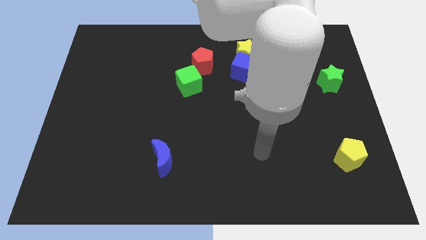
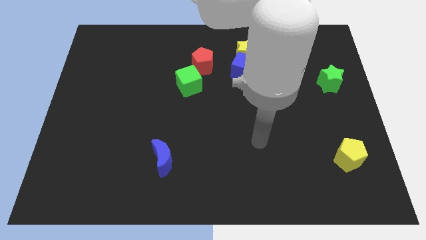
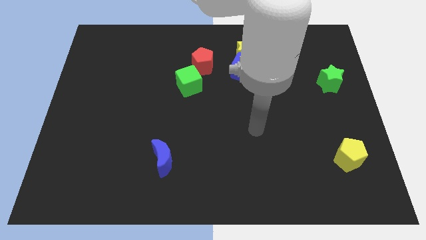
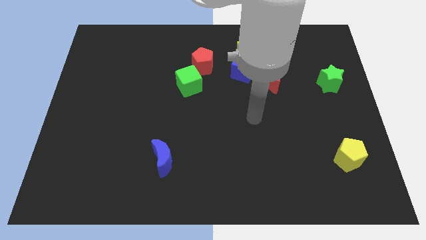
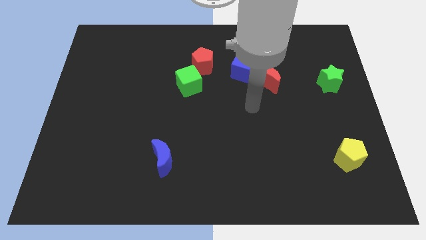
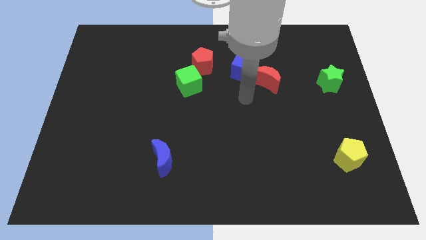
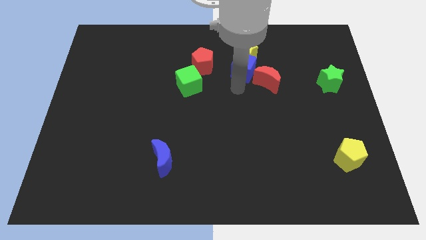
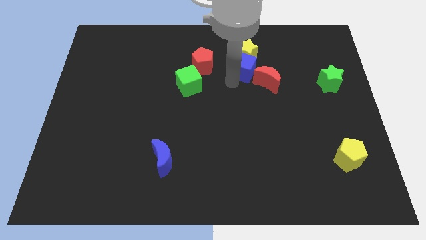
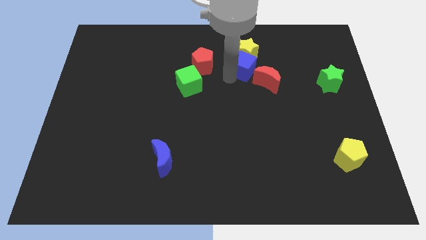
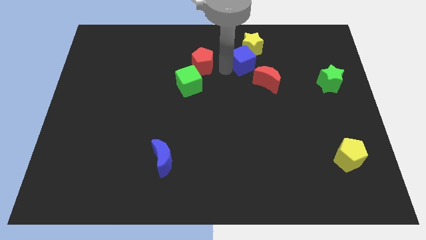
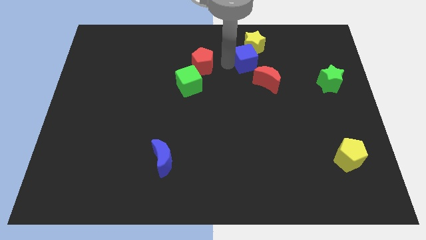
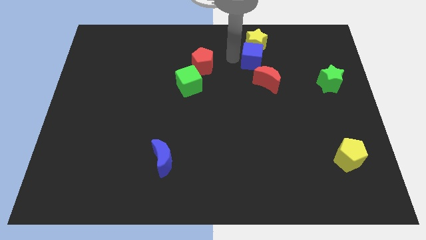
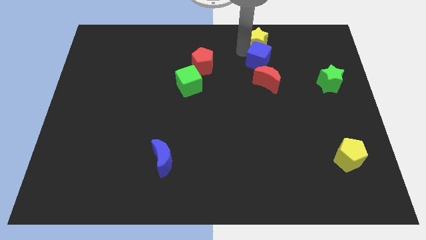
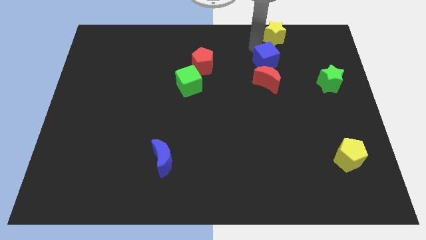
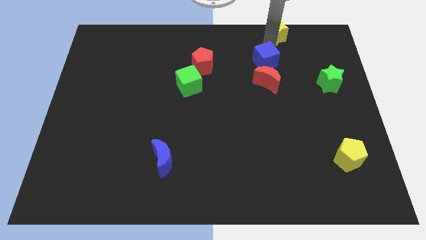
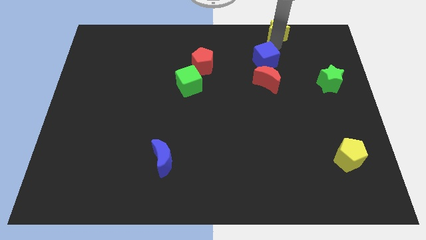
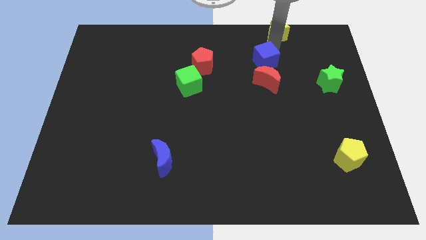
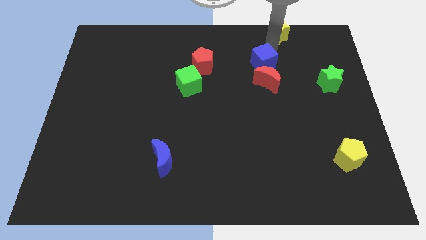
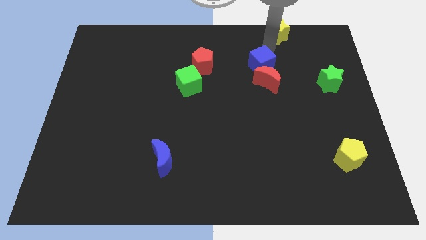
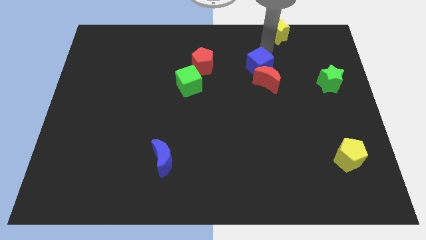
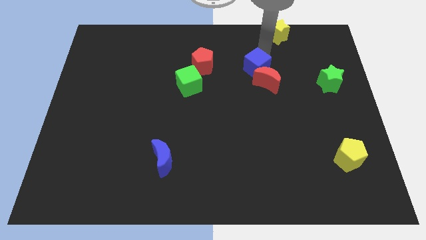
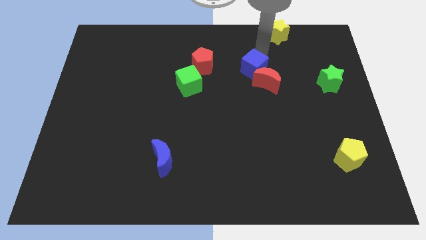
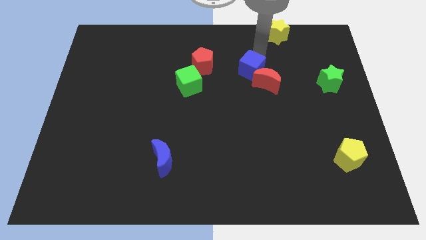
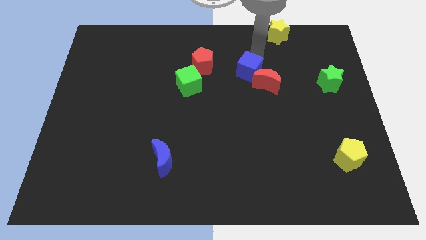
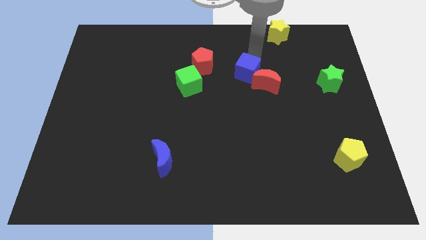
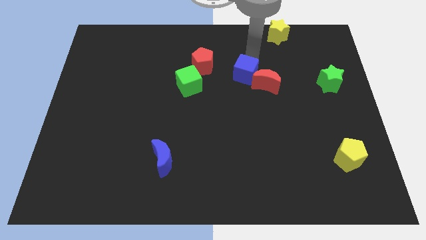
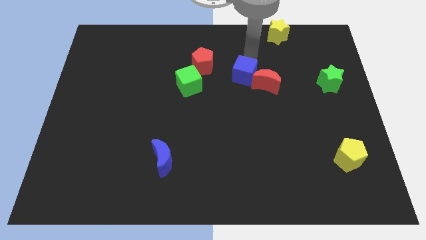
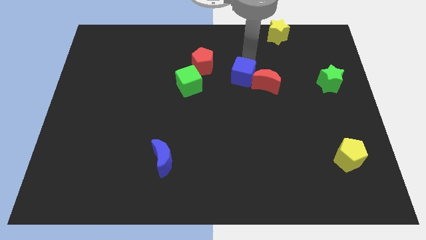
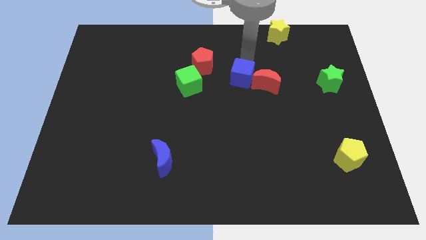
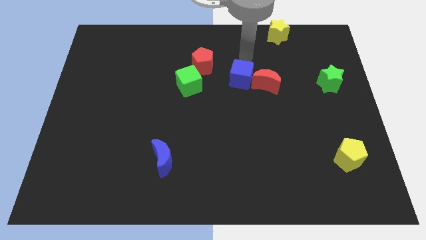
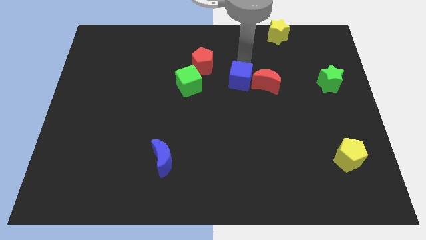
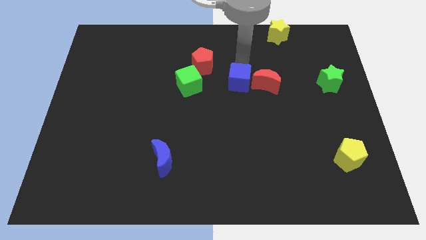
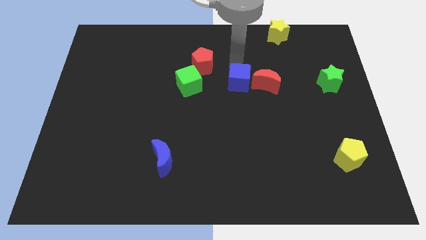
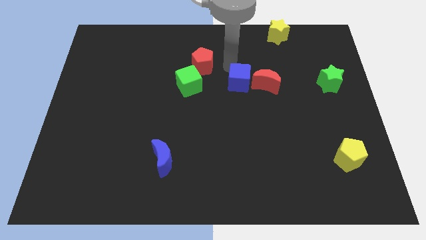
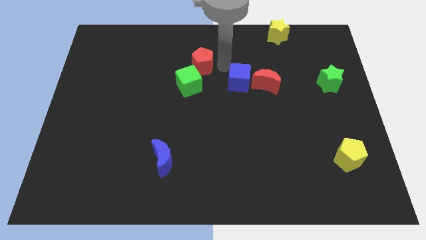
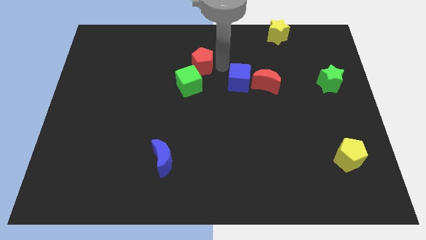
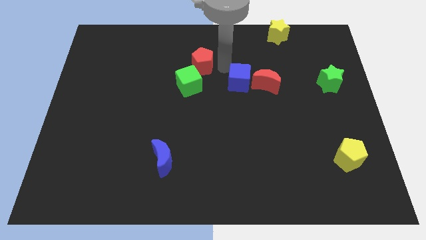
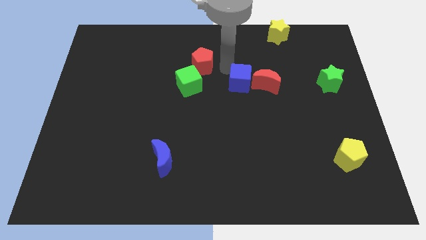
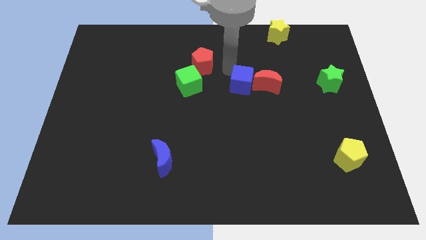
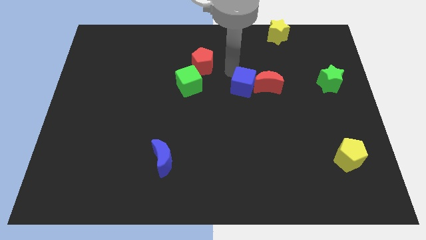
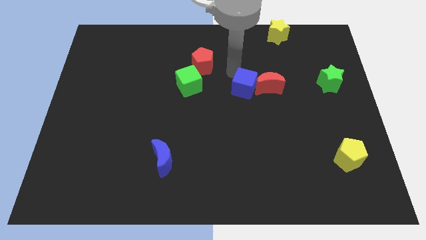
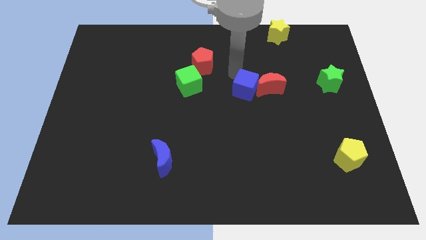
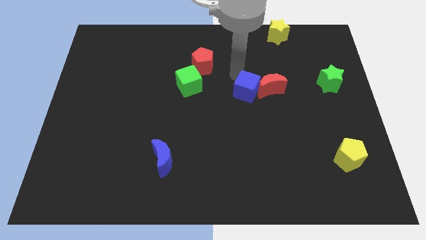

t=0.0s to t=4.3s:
pull the blue cube apart from the group

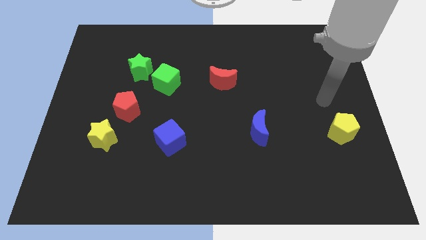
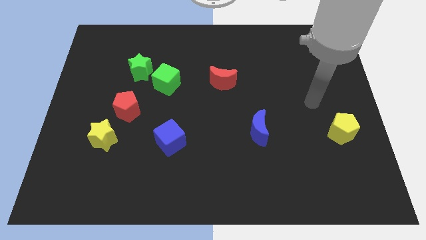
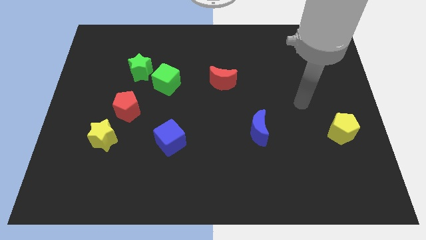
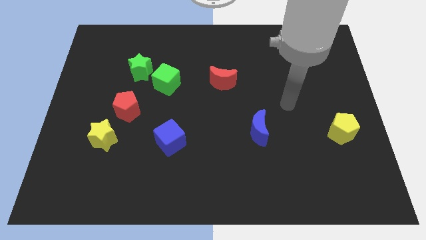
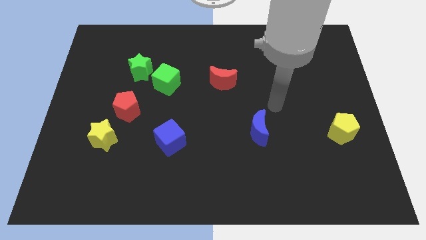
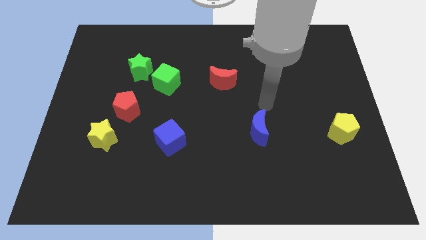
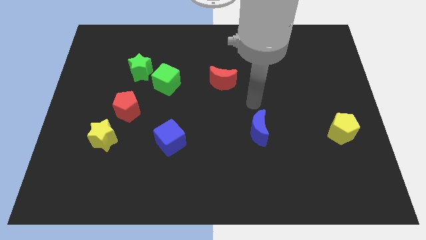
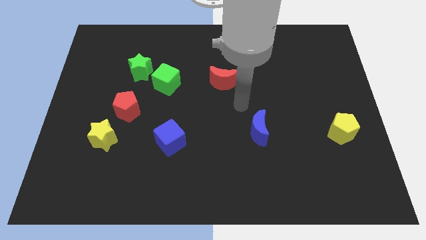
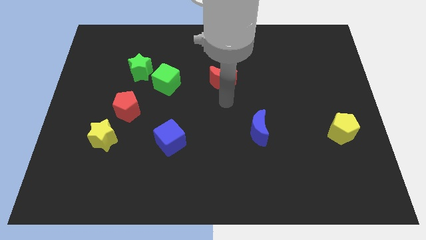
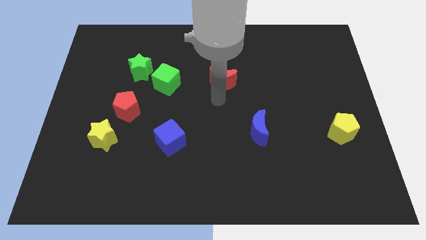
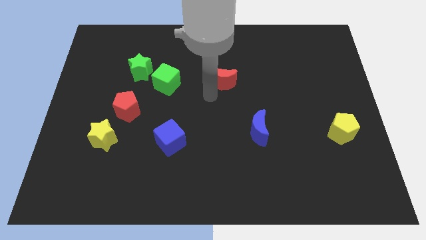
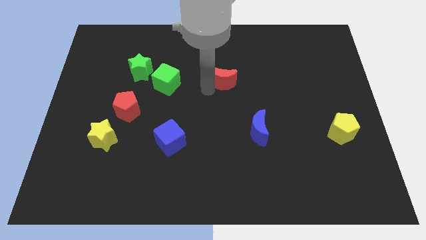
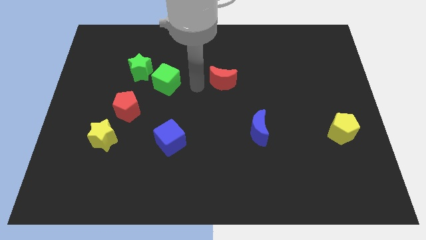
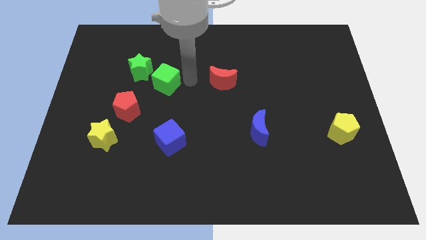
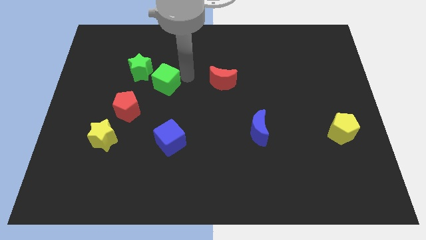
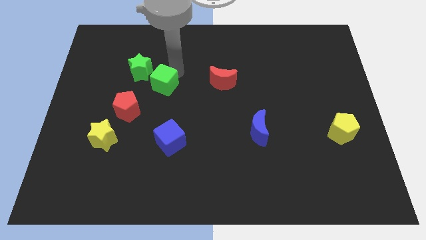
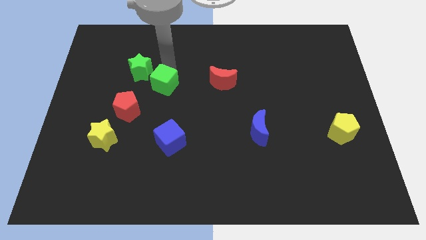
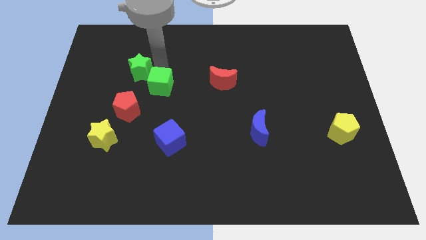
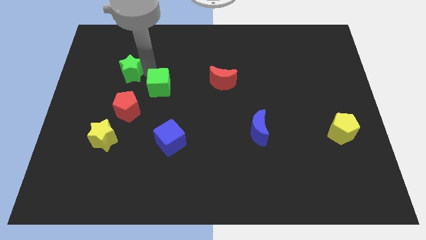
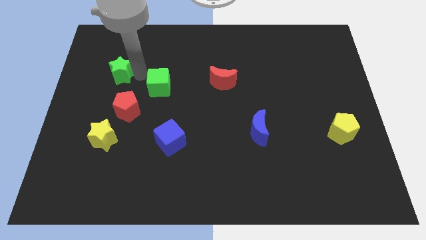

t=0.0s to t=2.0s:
pull the green cube apart from the green star

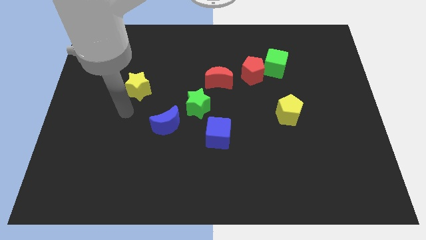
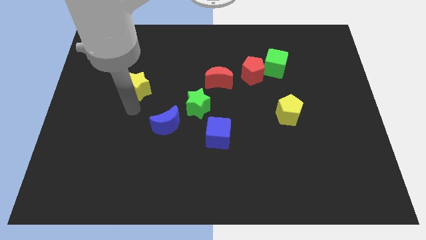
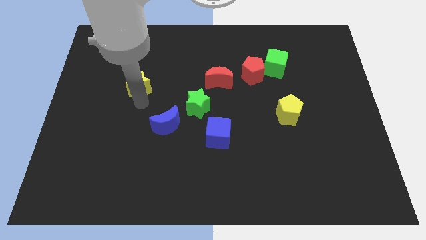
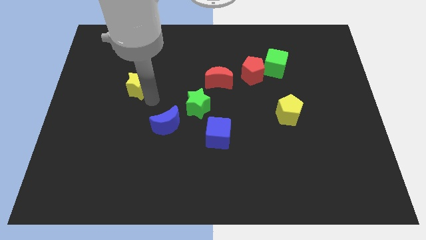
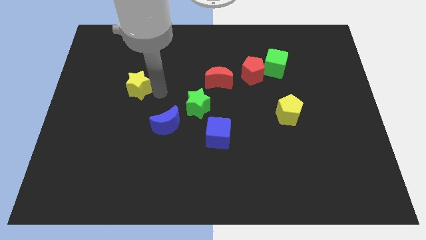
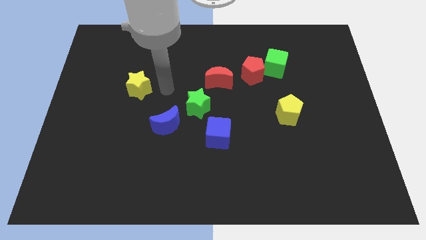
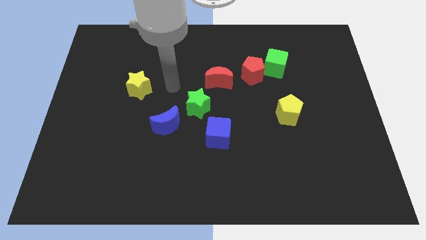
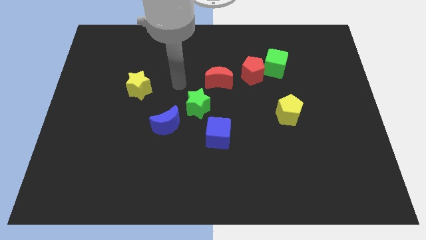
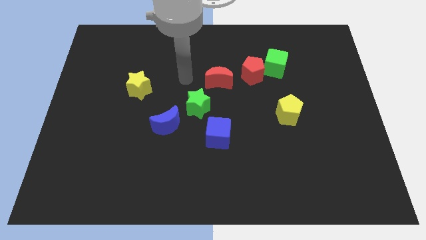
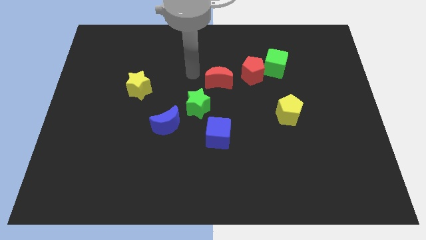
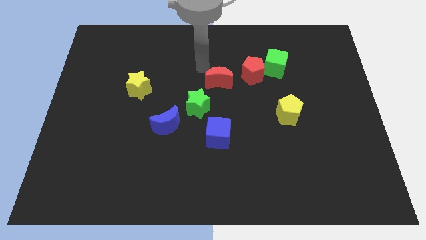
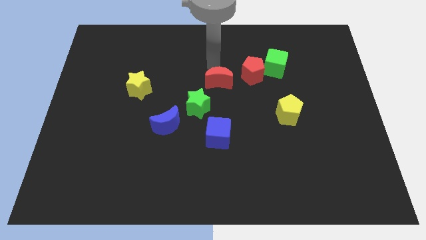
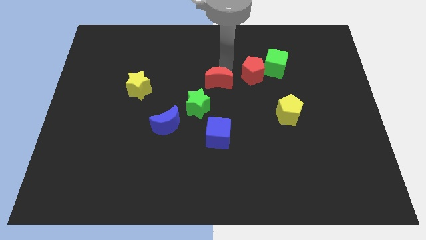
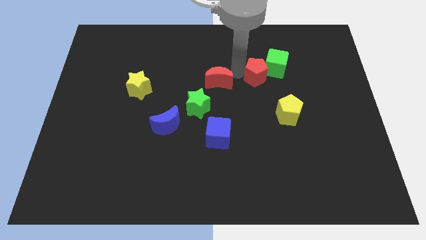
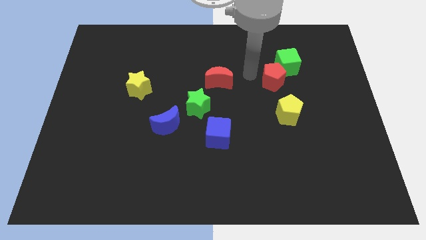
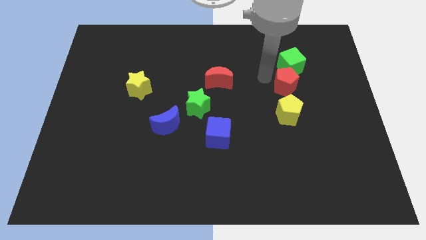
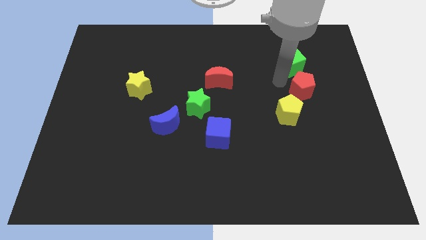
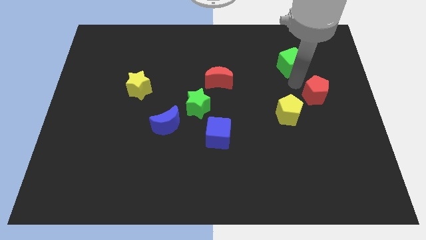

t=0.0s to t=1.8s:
pull the green cube apart from the red pentagon

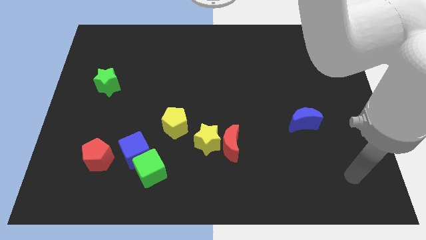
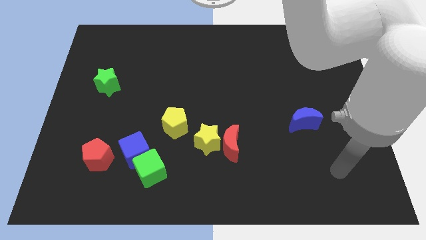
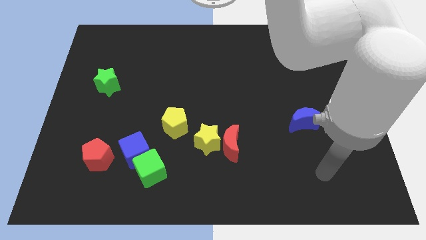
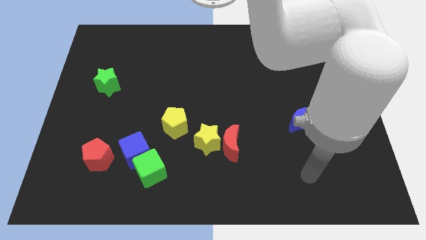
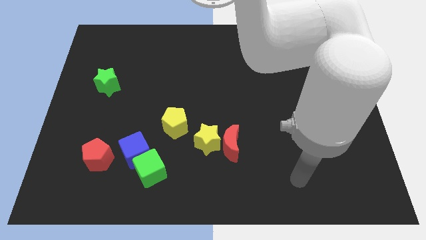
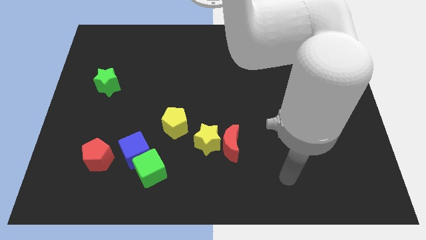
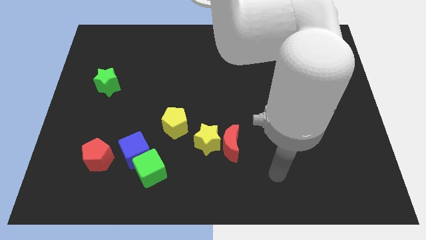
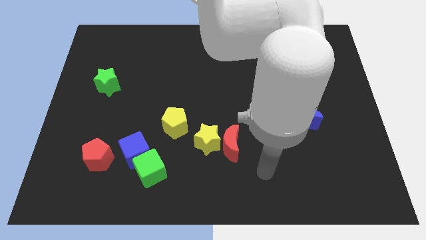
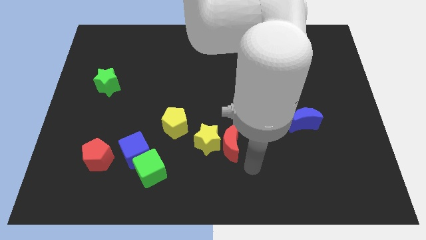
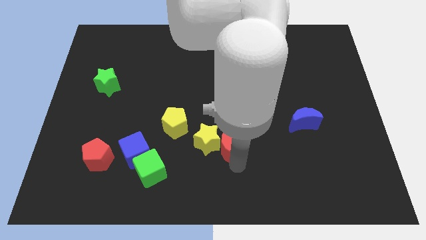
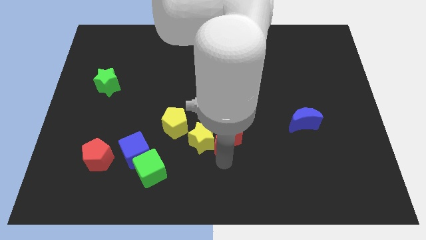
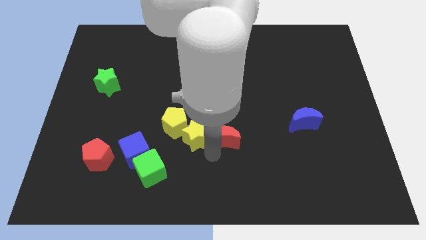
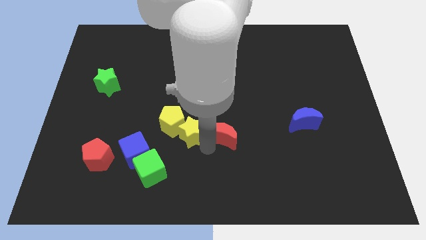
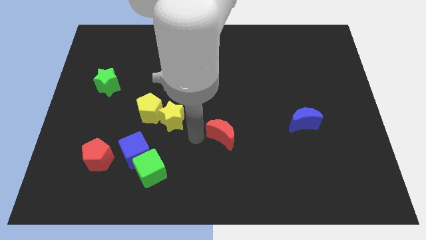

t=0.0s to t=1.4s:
pull the red moon apart from the yellow star
